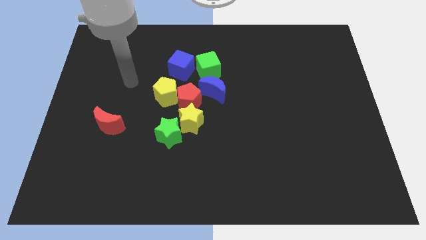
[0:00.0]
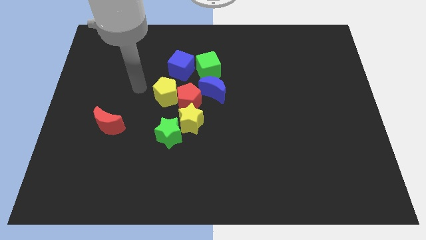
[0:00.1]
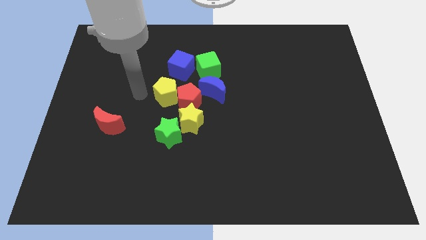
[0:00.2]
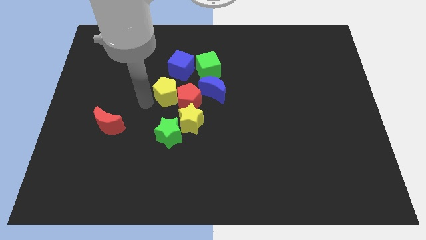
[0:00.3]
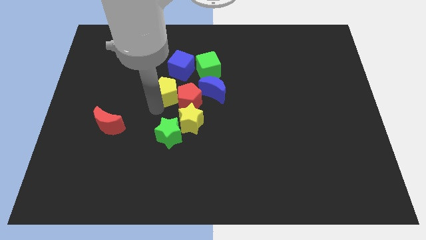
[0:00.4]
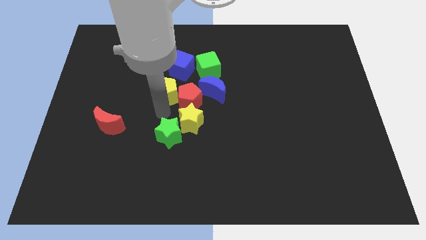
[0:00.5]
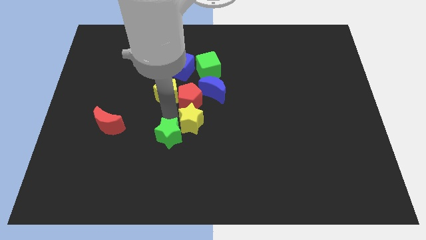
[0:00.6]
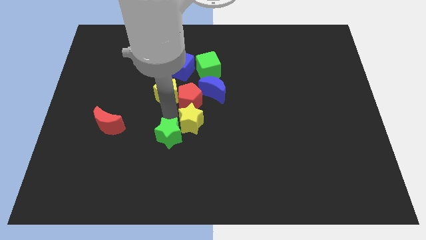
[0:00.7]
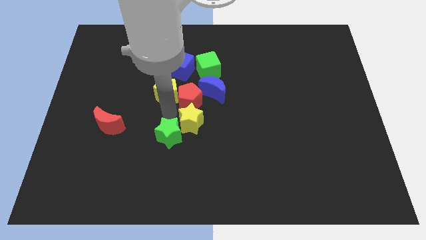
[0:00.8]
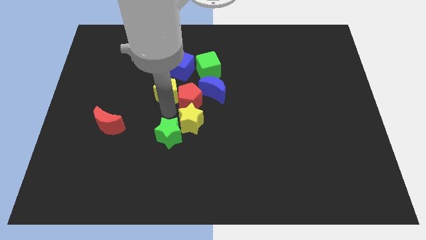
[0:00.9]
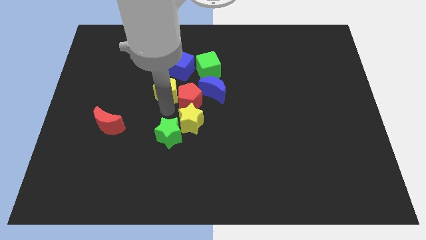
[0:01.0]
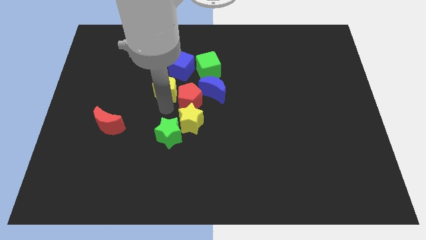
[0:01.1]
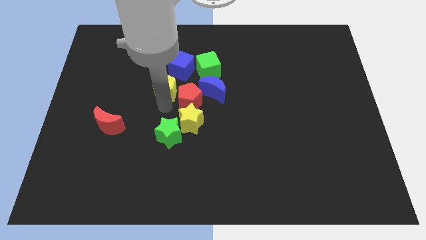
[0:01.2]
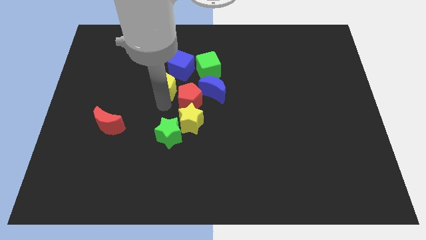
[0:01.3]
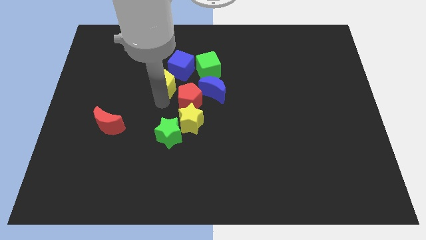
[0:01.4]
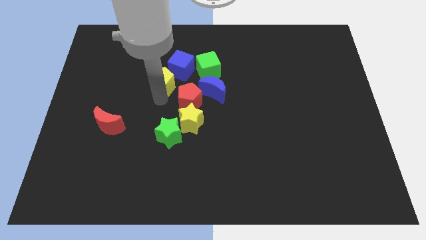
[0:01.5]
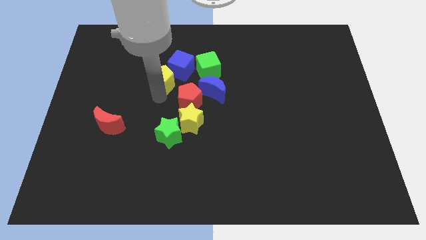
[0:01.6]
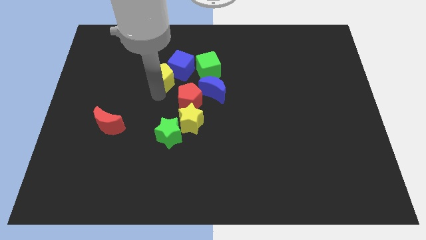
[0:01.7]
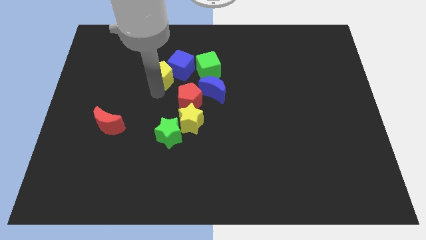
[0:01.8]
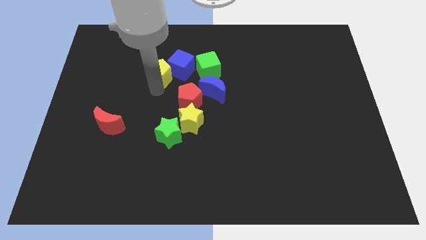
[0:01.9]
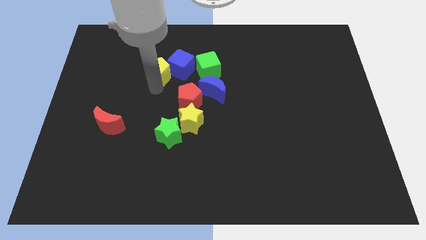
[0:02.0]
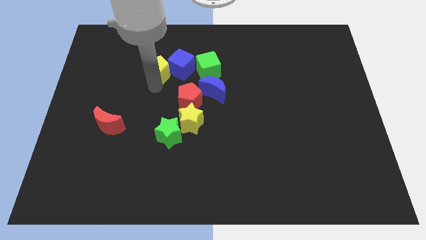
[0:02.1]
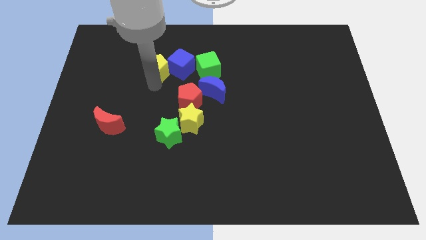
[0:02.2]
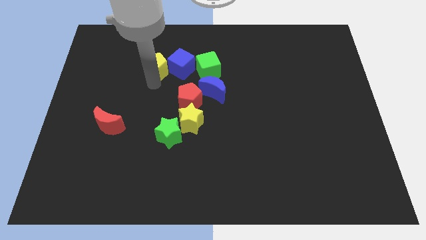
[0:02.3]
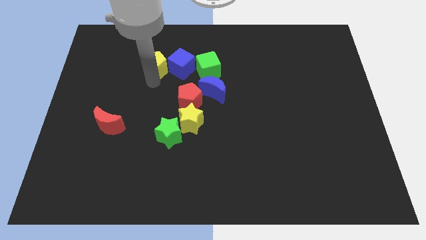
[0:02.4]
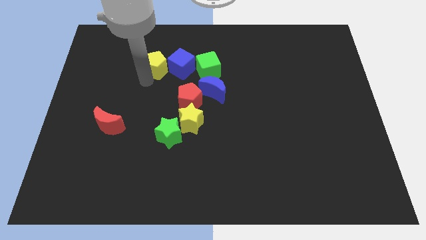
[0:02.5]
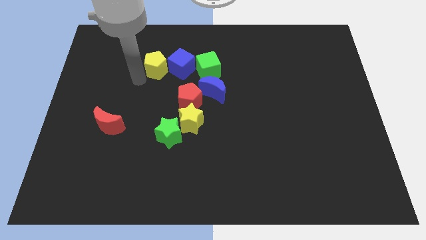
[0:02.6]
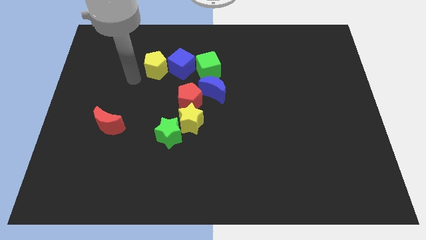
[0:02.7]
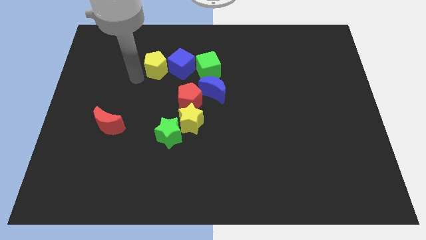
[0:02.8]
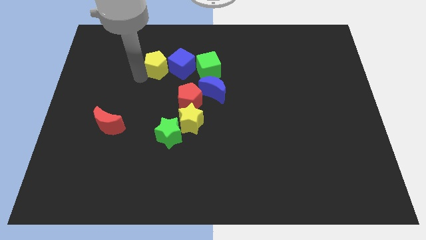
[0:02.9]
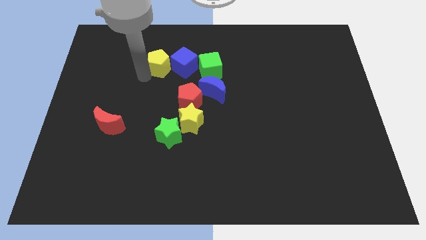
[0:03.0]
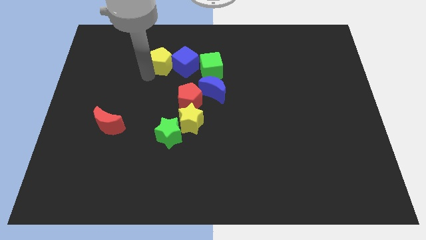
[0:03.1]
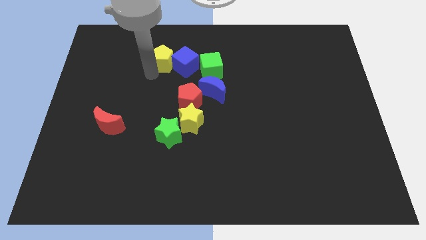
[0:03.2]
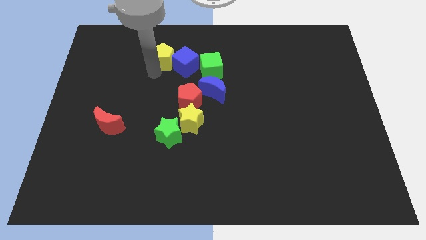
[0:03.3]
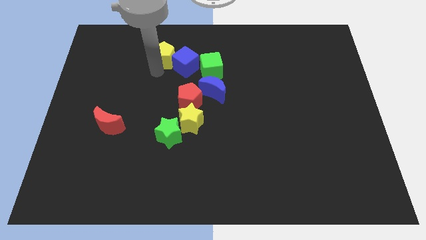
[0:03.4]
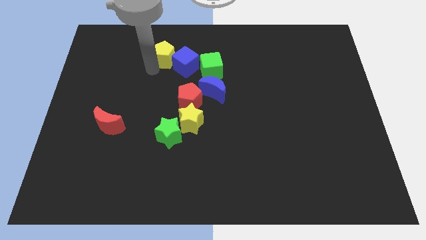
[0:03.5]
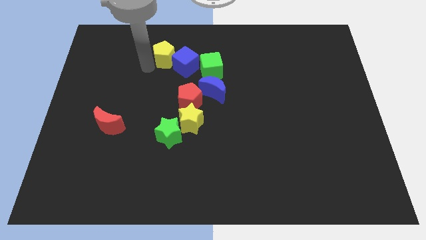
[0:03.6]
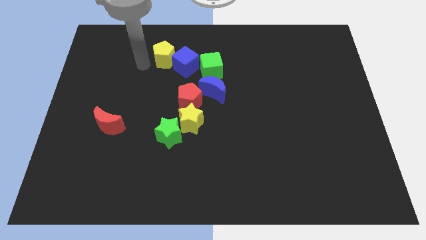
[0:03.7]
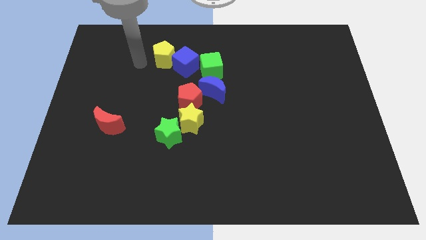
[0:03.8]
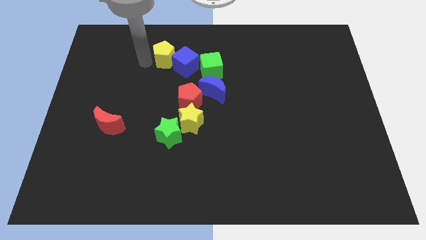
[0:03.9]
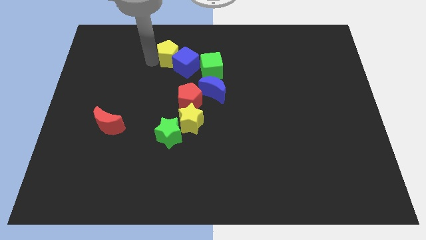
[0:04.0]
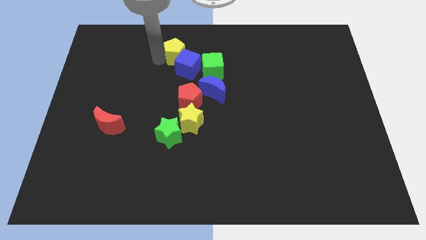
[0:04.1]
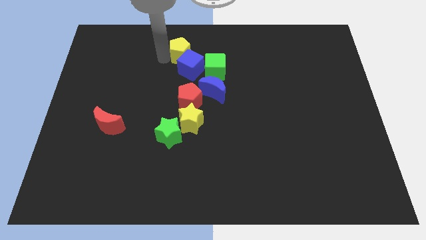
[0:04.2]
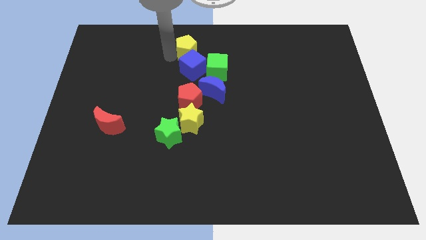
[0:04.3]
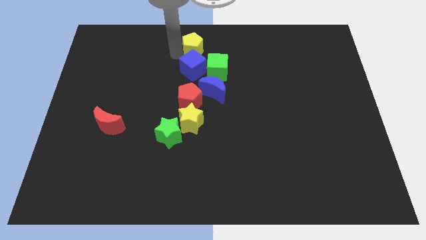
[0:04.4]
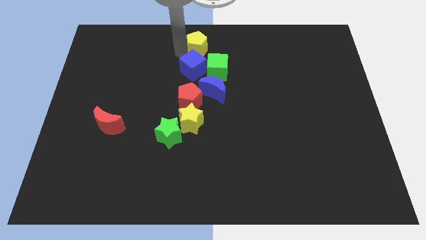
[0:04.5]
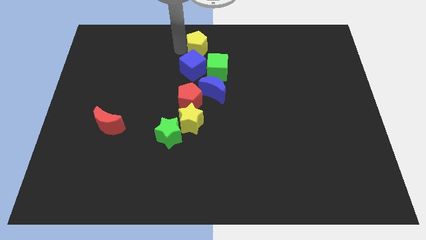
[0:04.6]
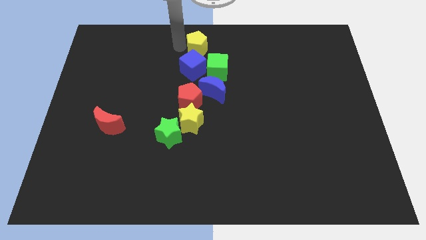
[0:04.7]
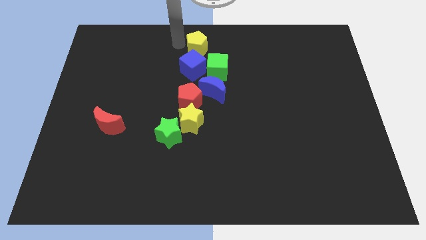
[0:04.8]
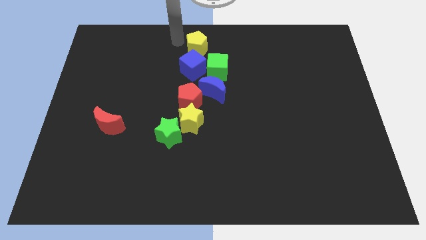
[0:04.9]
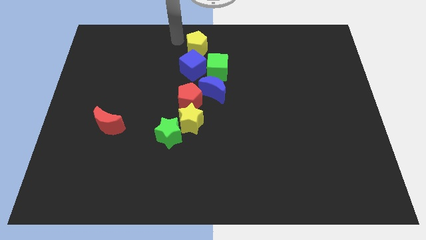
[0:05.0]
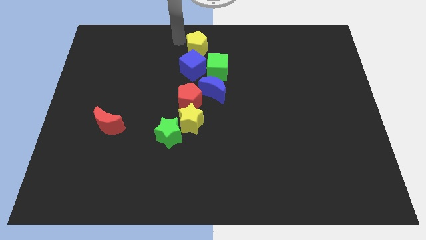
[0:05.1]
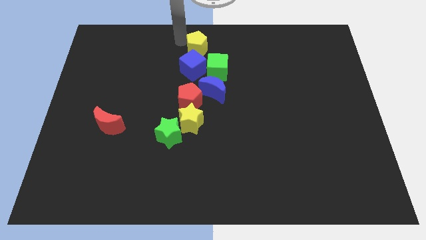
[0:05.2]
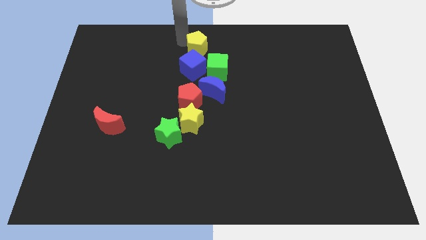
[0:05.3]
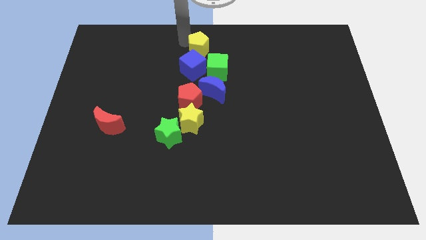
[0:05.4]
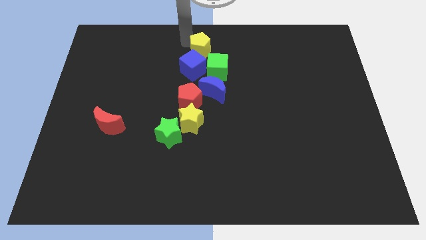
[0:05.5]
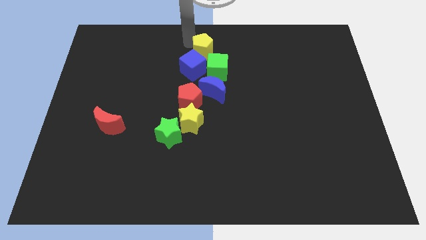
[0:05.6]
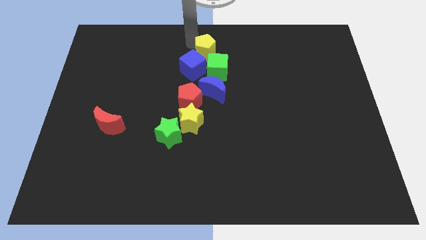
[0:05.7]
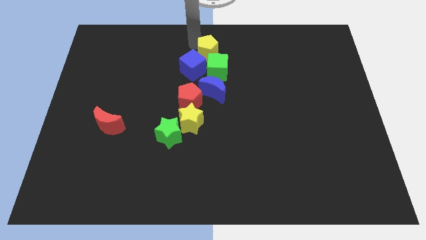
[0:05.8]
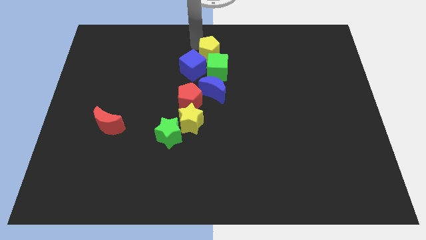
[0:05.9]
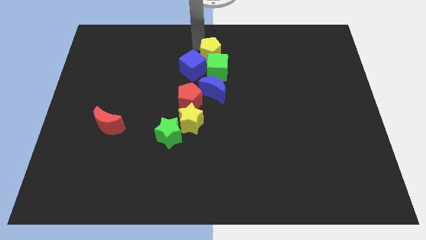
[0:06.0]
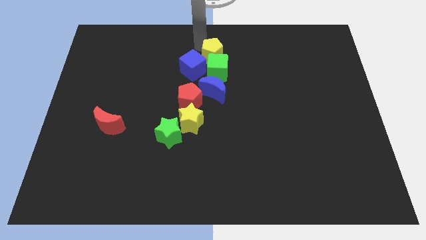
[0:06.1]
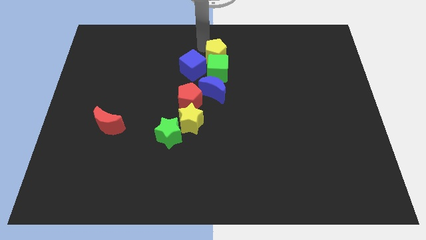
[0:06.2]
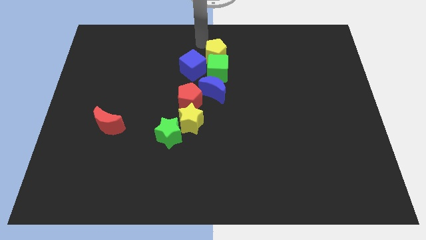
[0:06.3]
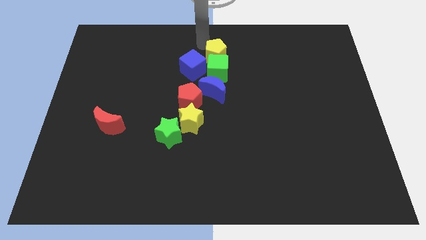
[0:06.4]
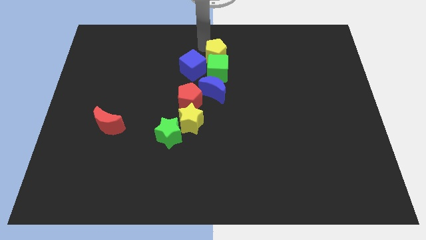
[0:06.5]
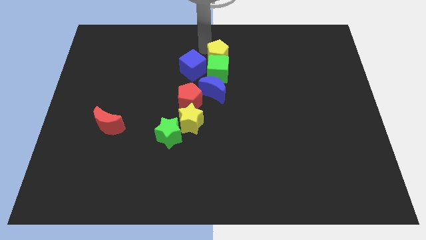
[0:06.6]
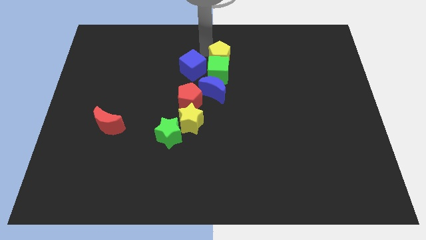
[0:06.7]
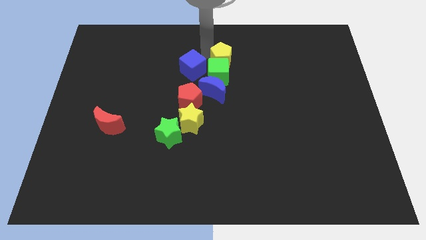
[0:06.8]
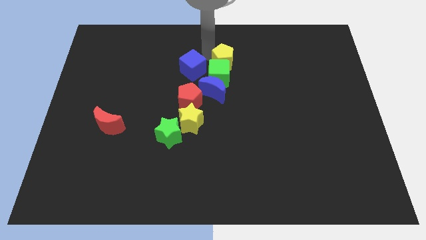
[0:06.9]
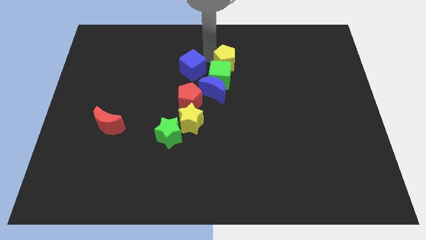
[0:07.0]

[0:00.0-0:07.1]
move the yellow pentagon to the top right side of the blue moon
